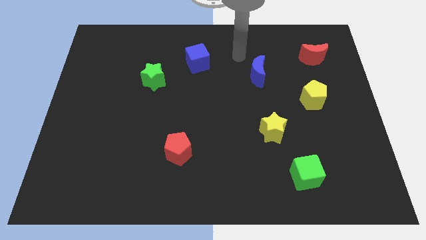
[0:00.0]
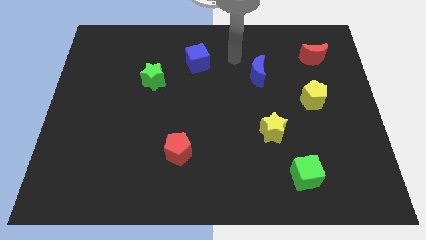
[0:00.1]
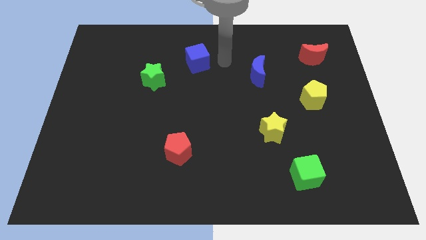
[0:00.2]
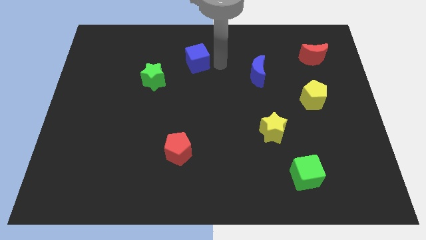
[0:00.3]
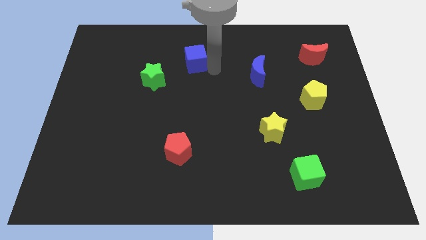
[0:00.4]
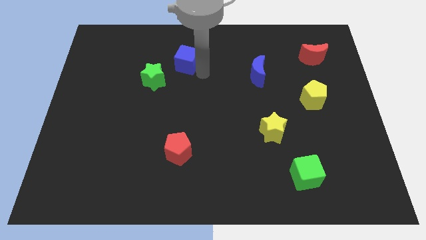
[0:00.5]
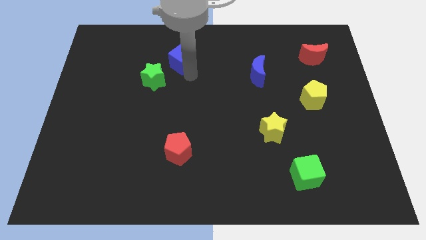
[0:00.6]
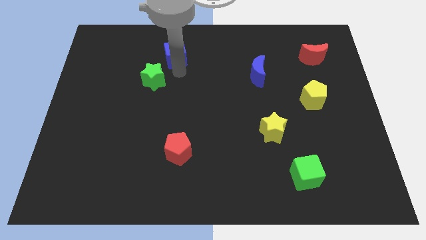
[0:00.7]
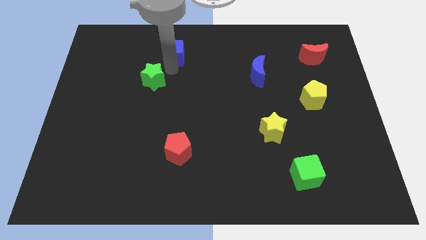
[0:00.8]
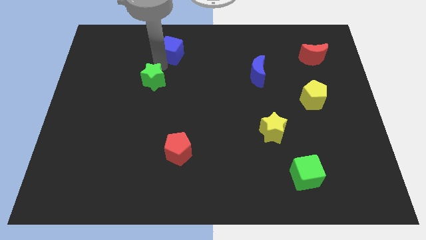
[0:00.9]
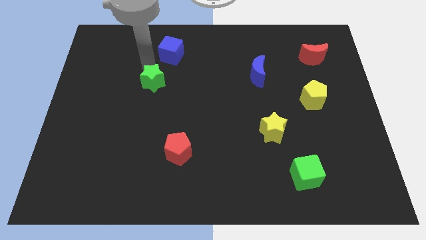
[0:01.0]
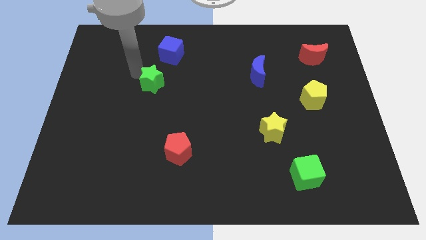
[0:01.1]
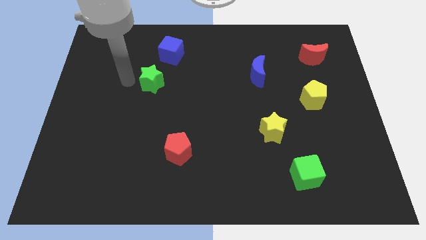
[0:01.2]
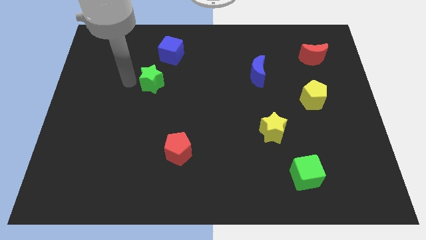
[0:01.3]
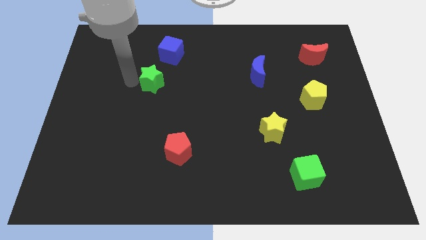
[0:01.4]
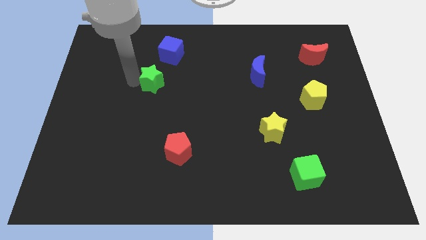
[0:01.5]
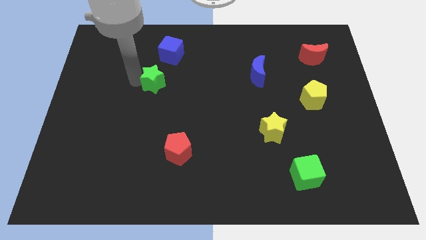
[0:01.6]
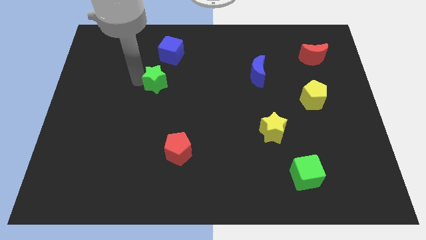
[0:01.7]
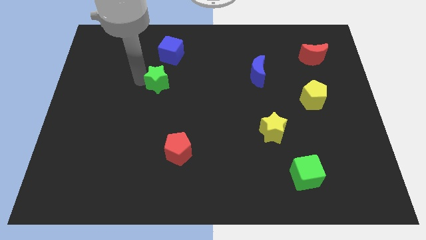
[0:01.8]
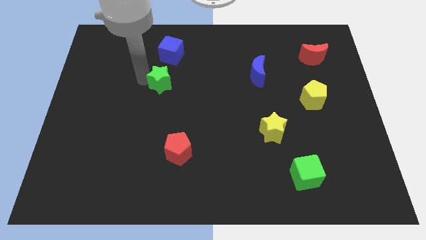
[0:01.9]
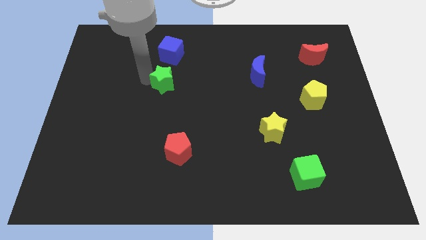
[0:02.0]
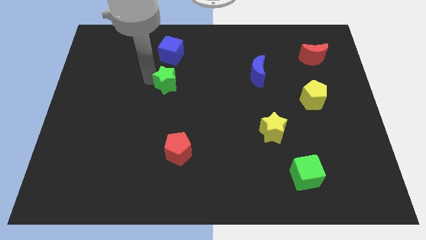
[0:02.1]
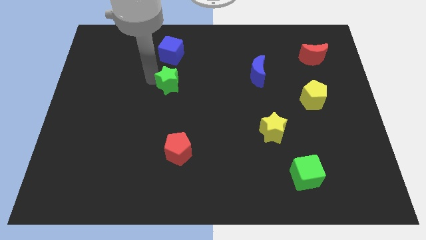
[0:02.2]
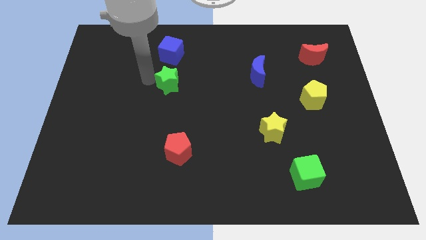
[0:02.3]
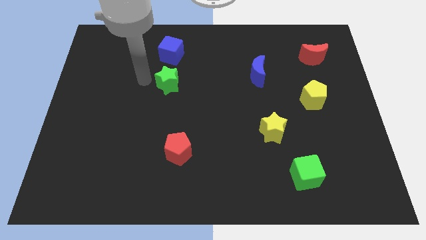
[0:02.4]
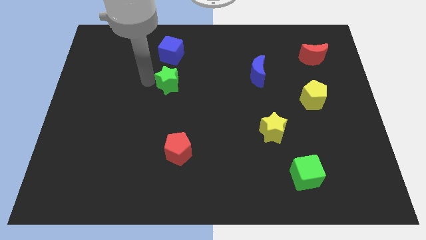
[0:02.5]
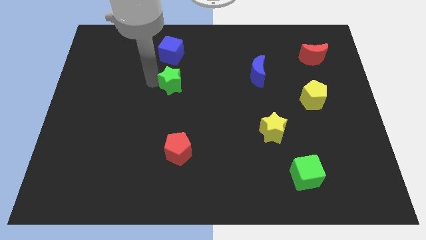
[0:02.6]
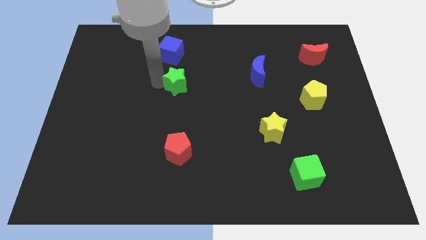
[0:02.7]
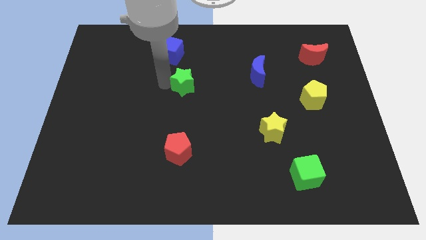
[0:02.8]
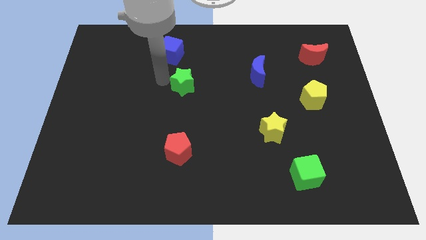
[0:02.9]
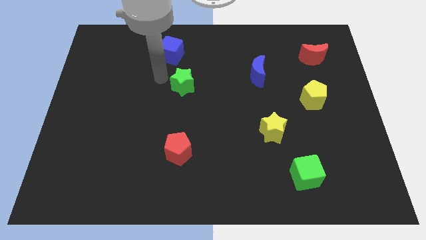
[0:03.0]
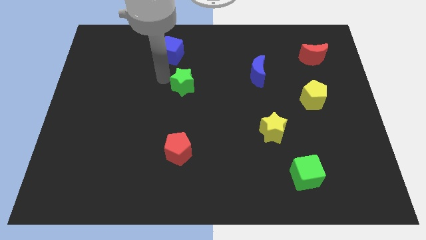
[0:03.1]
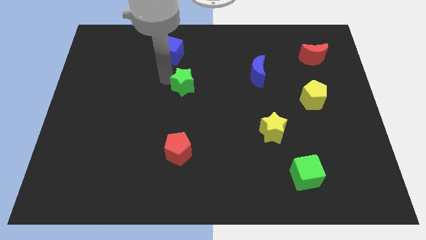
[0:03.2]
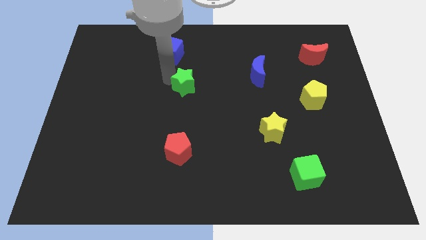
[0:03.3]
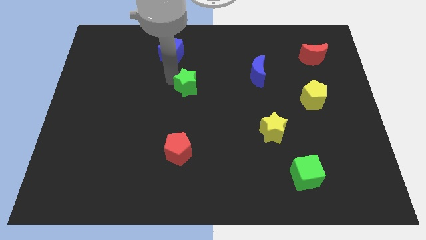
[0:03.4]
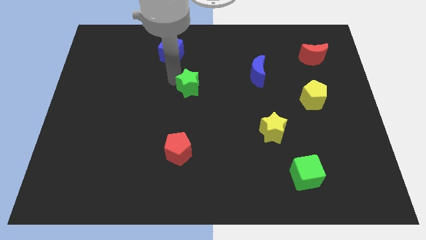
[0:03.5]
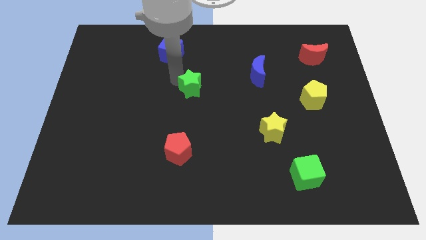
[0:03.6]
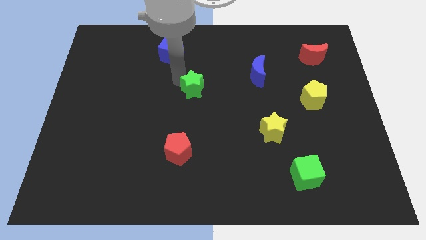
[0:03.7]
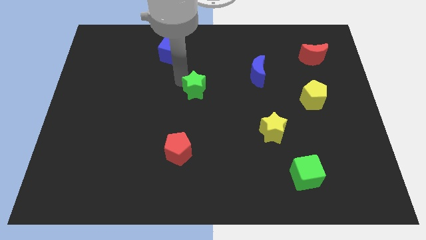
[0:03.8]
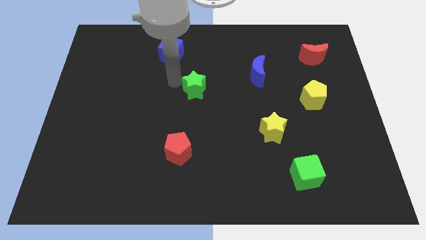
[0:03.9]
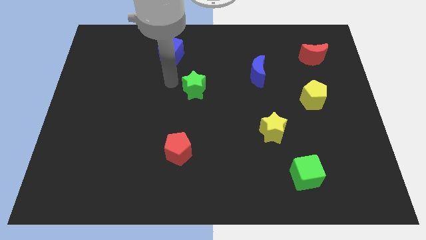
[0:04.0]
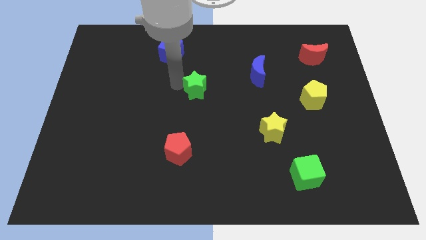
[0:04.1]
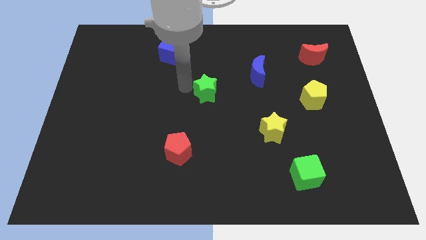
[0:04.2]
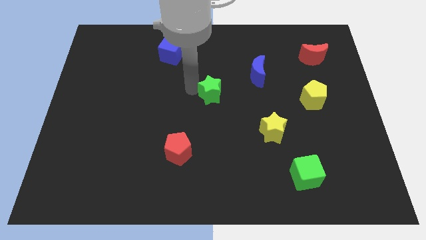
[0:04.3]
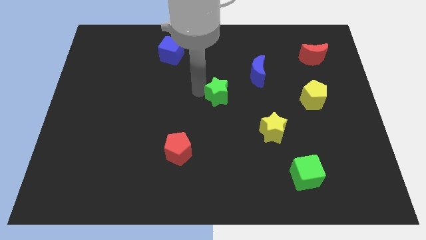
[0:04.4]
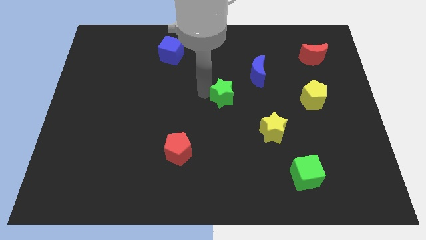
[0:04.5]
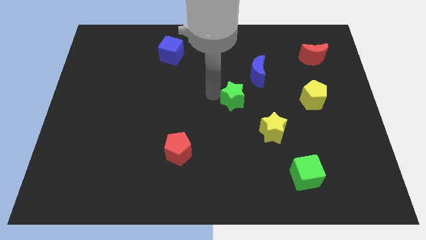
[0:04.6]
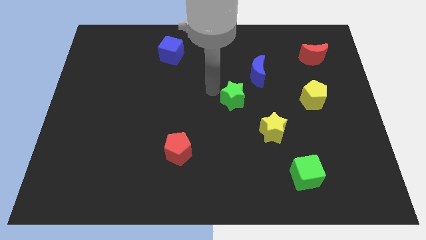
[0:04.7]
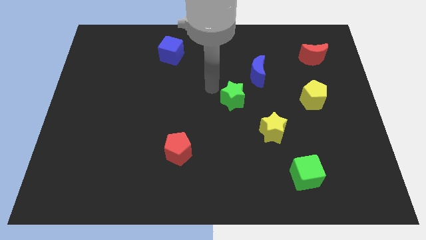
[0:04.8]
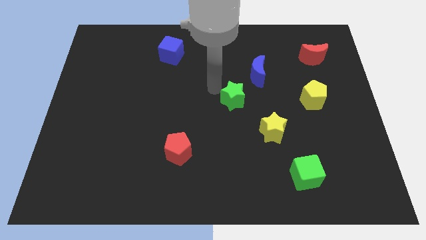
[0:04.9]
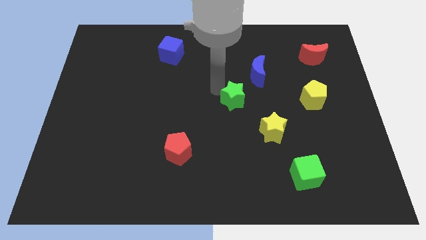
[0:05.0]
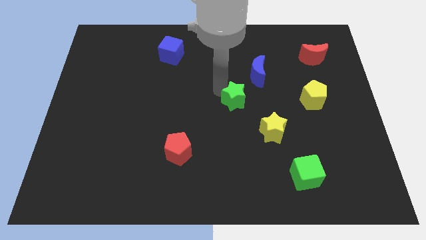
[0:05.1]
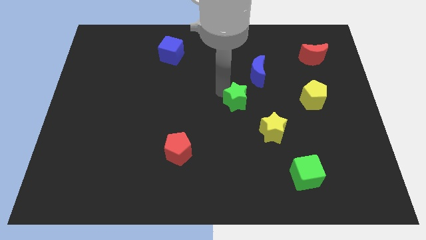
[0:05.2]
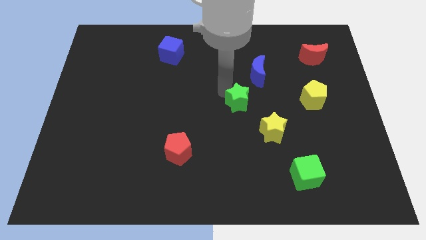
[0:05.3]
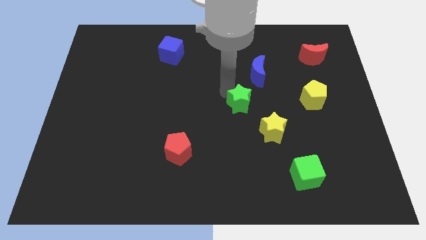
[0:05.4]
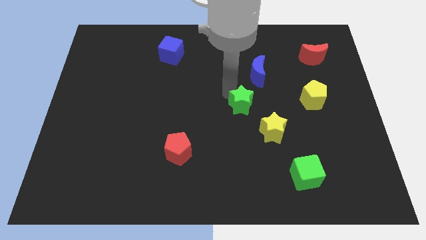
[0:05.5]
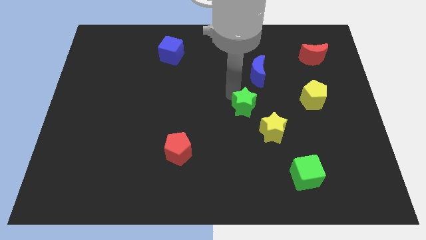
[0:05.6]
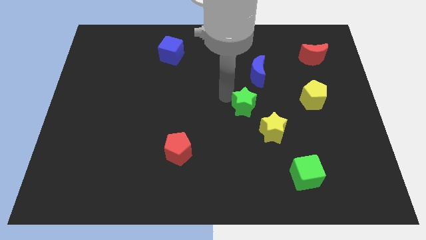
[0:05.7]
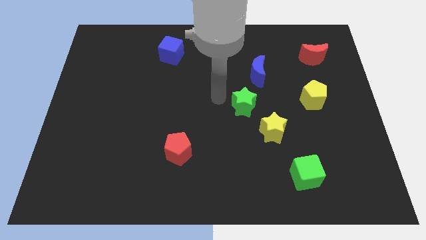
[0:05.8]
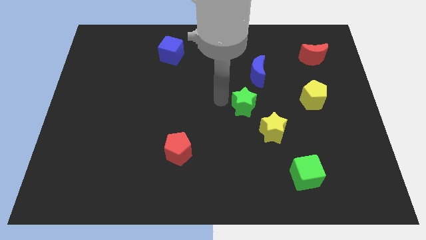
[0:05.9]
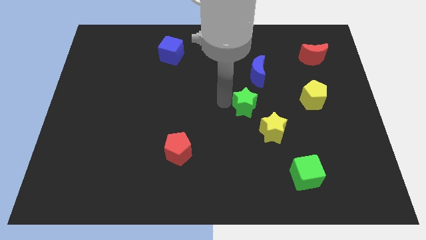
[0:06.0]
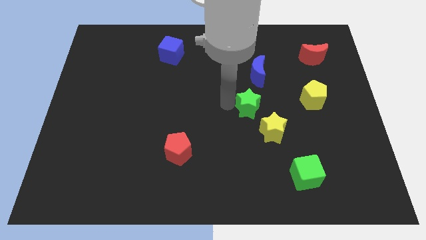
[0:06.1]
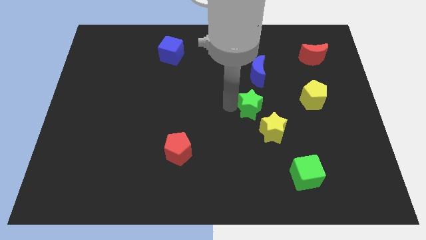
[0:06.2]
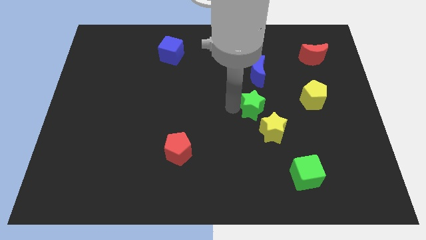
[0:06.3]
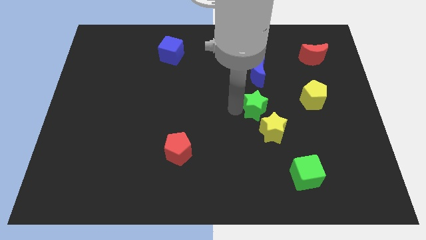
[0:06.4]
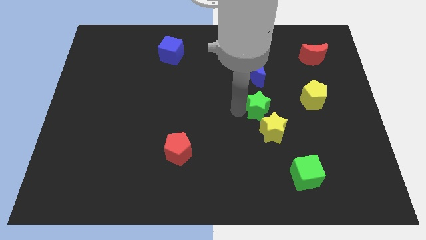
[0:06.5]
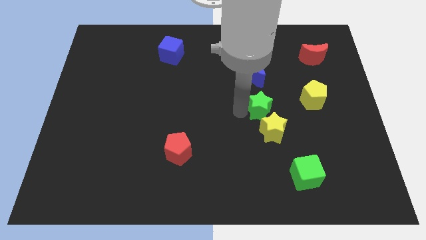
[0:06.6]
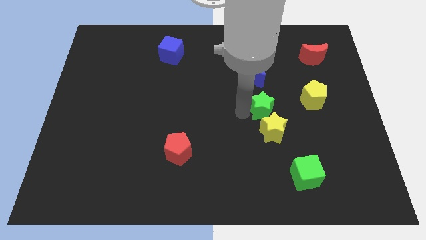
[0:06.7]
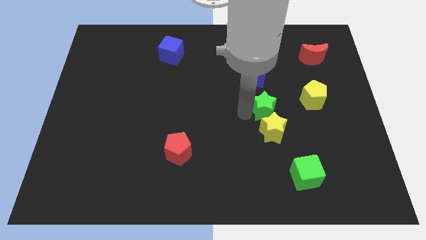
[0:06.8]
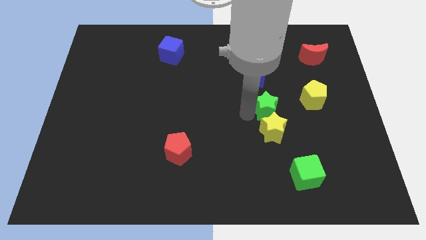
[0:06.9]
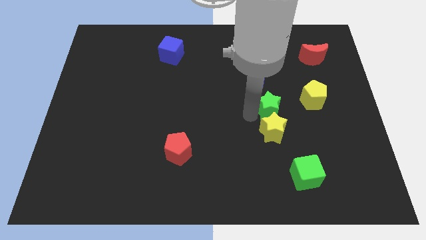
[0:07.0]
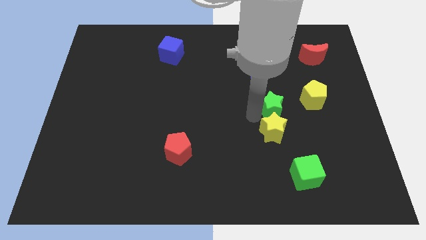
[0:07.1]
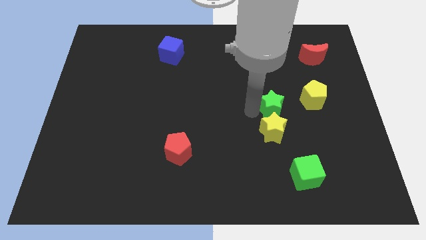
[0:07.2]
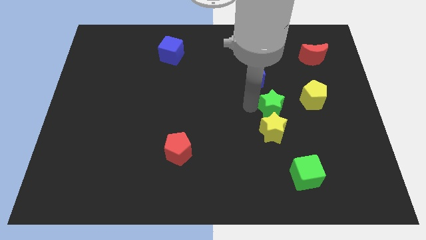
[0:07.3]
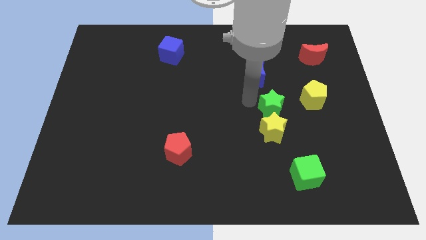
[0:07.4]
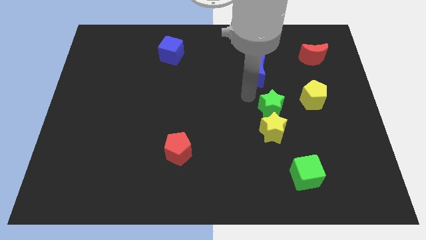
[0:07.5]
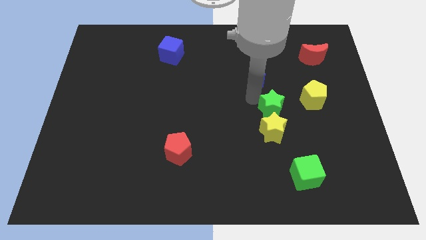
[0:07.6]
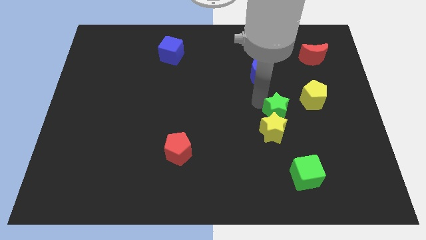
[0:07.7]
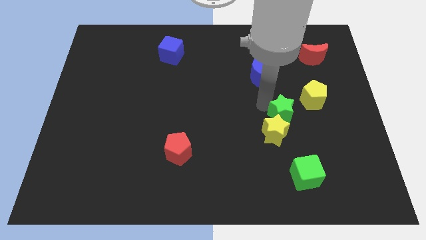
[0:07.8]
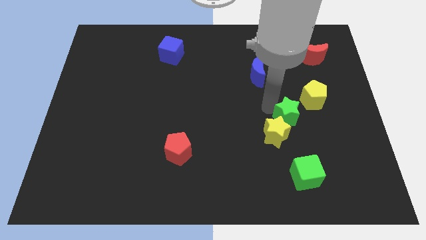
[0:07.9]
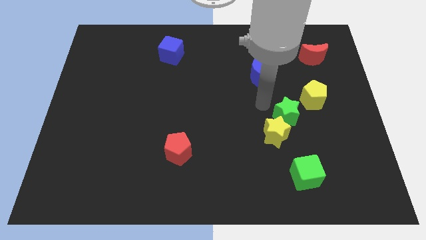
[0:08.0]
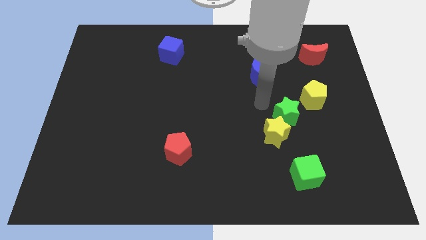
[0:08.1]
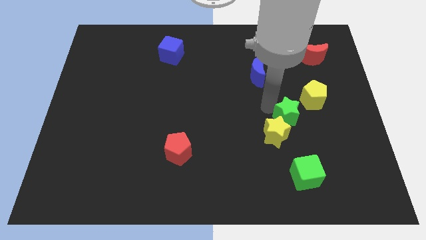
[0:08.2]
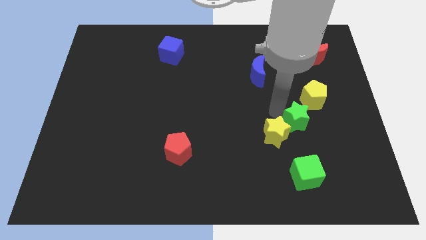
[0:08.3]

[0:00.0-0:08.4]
move the green star just right of the yellow star
